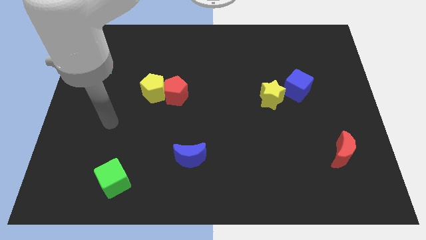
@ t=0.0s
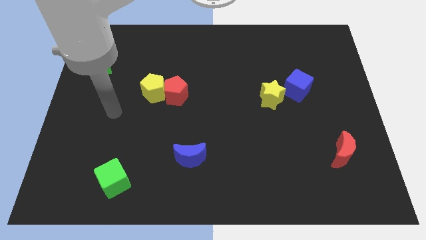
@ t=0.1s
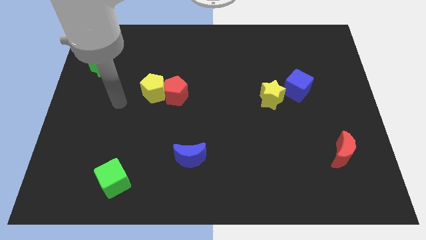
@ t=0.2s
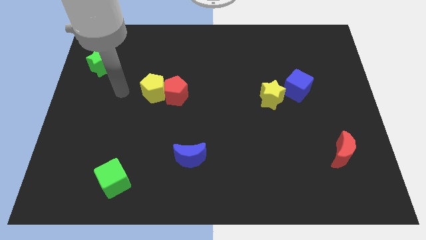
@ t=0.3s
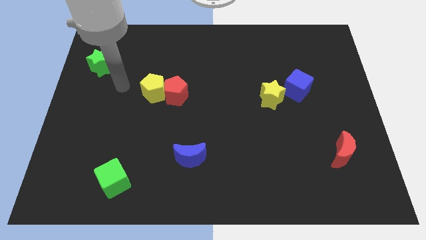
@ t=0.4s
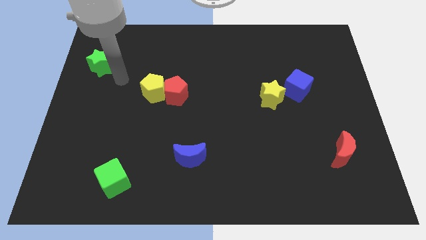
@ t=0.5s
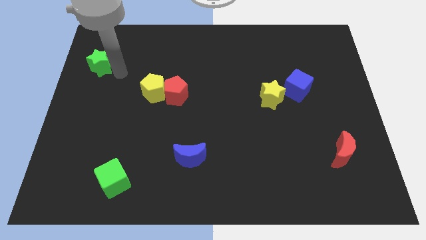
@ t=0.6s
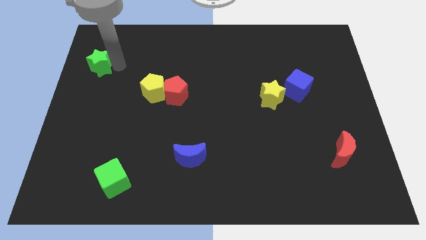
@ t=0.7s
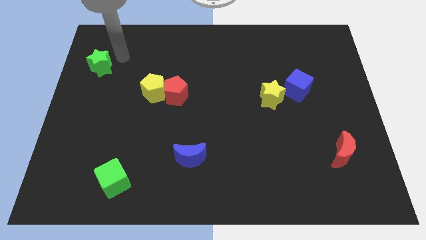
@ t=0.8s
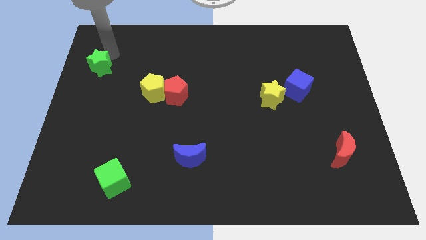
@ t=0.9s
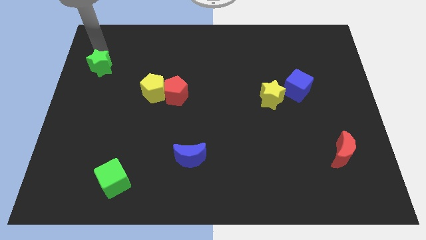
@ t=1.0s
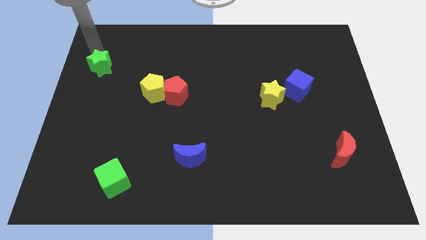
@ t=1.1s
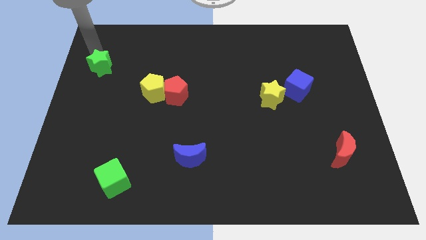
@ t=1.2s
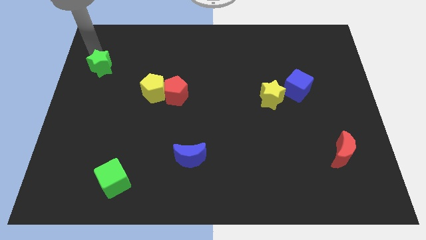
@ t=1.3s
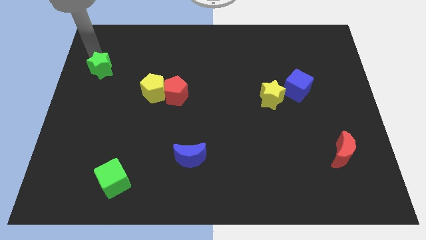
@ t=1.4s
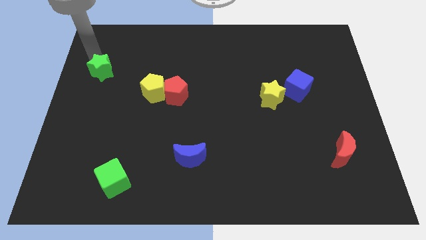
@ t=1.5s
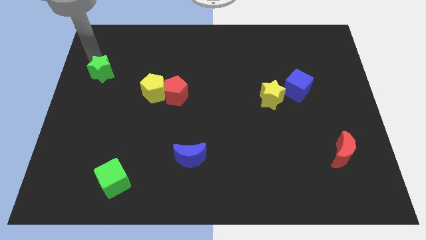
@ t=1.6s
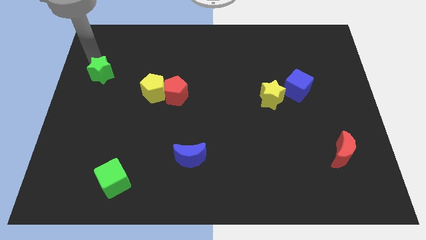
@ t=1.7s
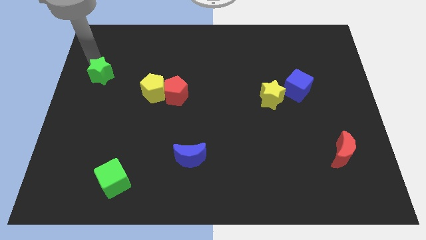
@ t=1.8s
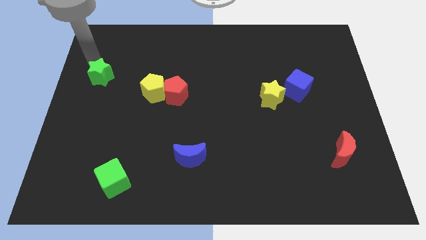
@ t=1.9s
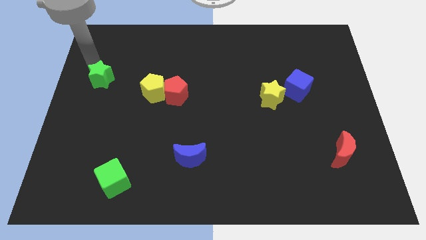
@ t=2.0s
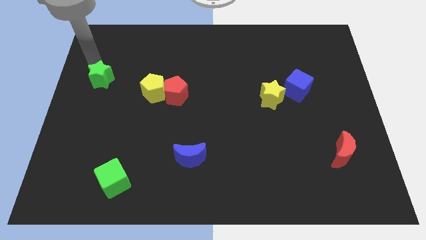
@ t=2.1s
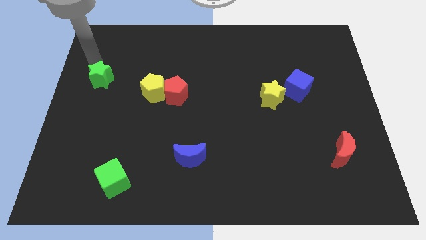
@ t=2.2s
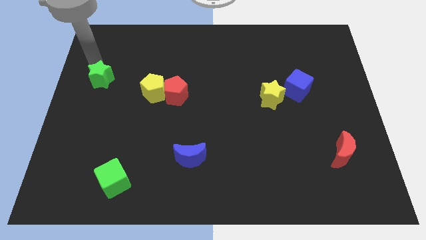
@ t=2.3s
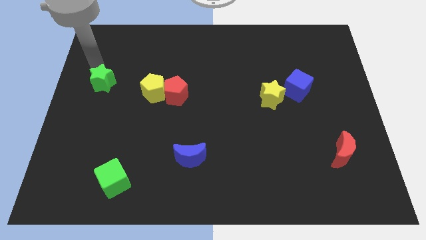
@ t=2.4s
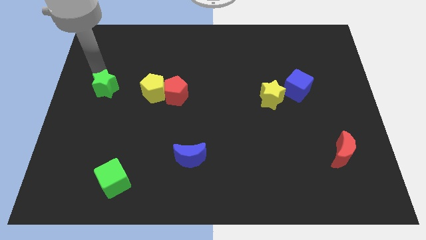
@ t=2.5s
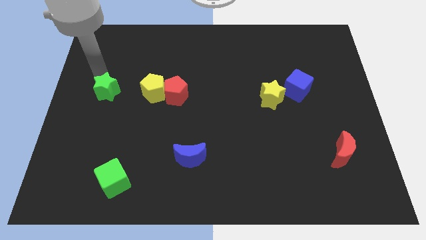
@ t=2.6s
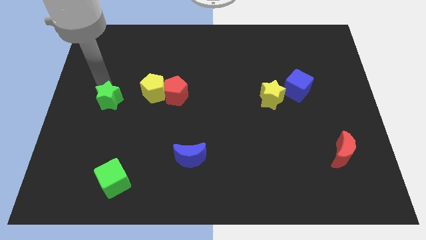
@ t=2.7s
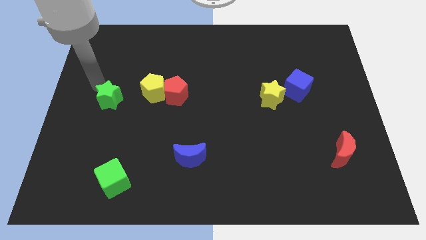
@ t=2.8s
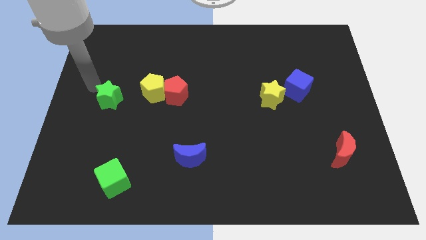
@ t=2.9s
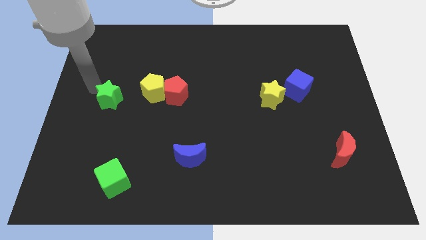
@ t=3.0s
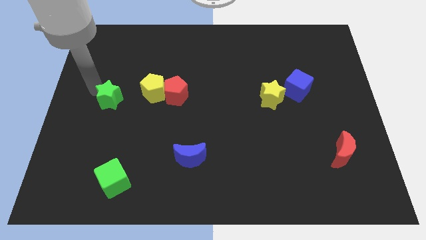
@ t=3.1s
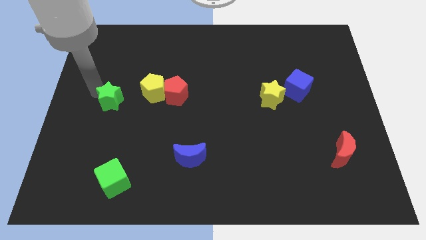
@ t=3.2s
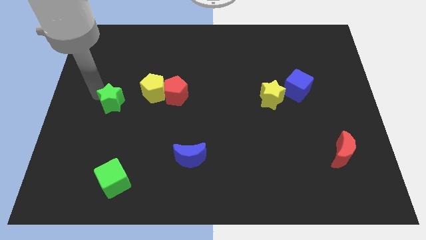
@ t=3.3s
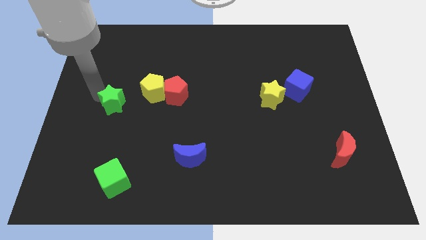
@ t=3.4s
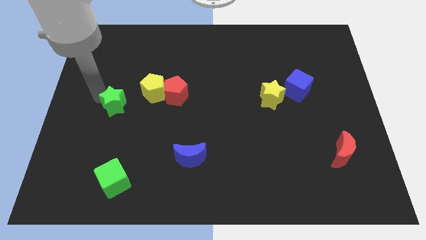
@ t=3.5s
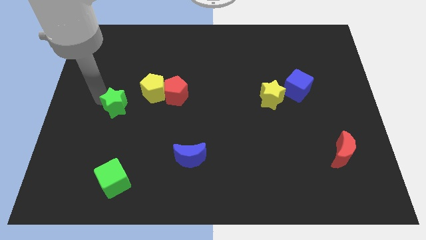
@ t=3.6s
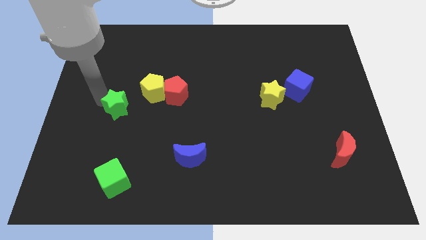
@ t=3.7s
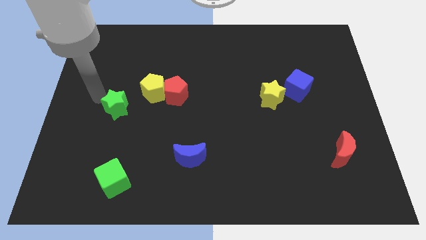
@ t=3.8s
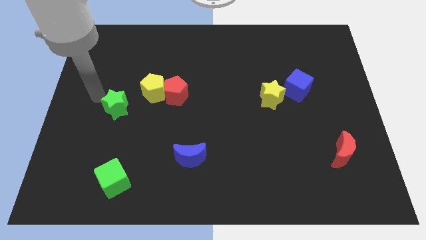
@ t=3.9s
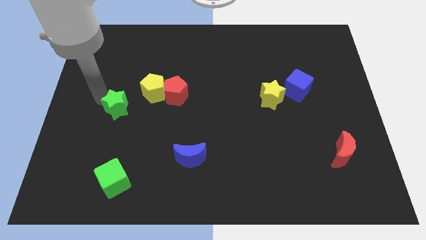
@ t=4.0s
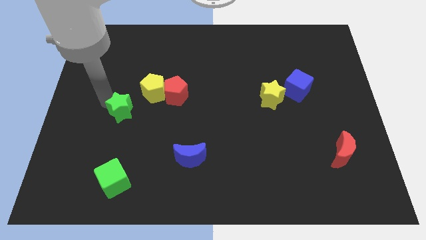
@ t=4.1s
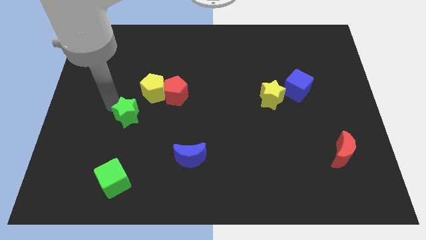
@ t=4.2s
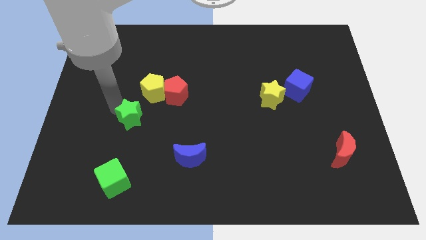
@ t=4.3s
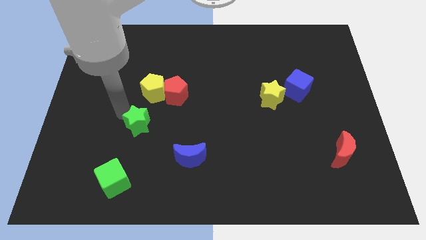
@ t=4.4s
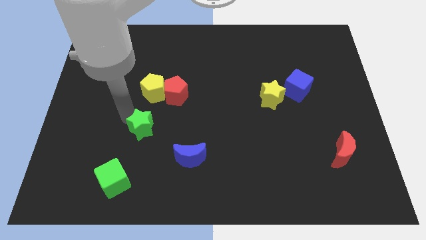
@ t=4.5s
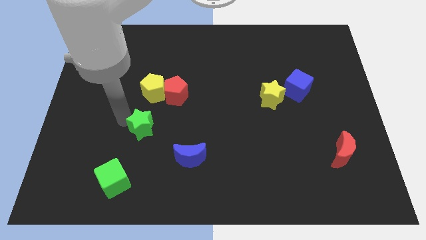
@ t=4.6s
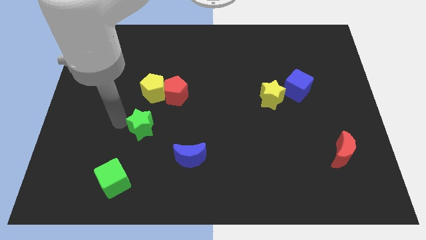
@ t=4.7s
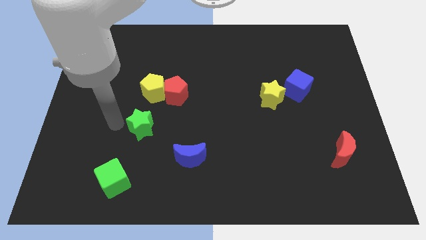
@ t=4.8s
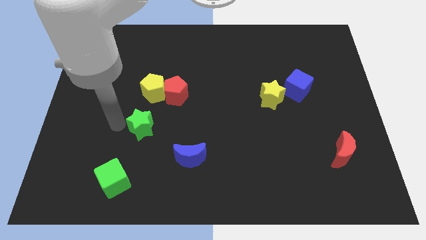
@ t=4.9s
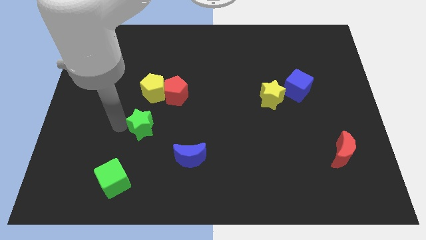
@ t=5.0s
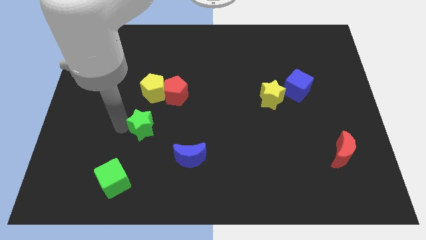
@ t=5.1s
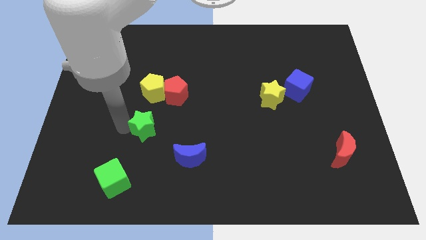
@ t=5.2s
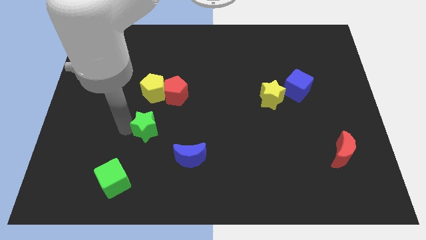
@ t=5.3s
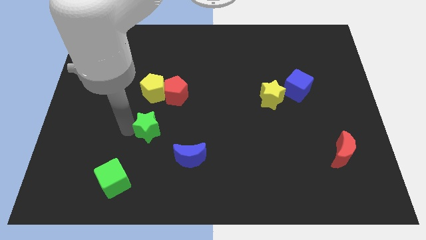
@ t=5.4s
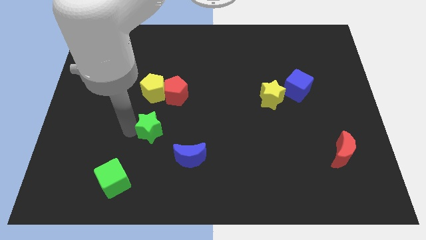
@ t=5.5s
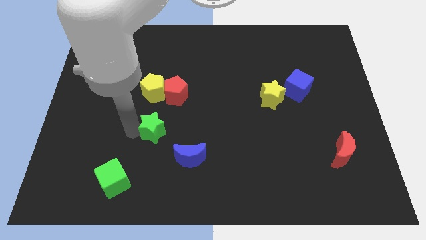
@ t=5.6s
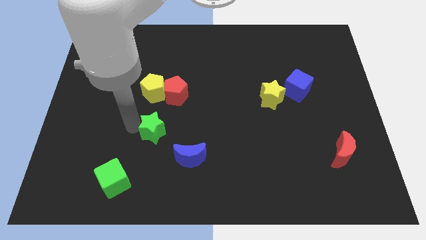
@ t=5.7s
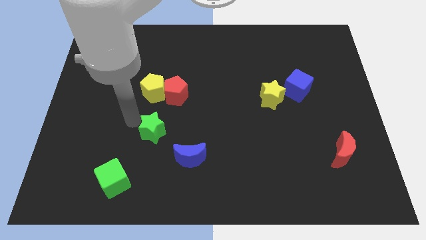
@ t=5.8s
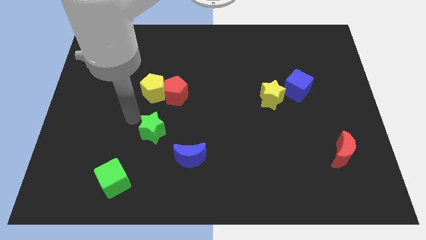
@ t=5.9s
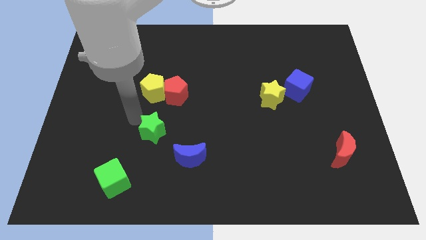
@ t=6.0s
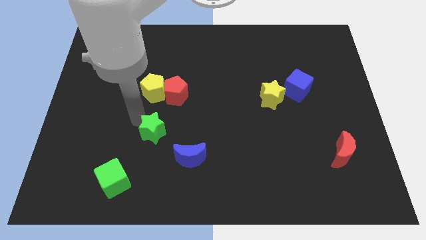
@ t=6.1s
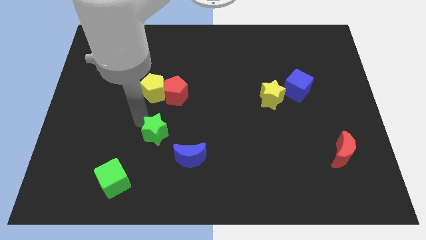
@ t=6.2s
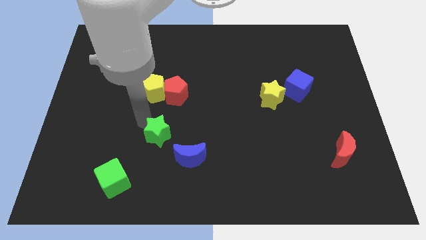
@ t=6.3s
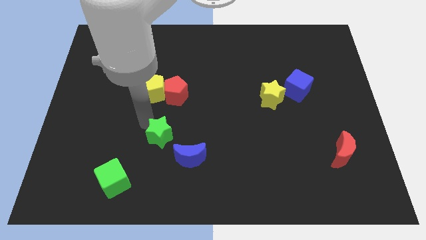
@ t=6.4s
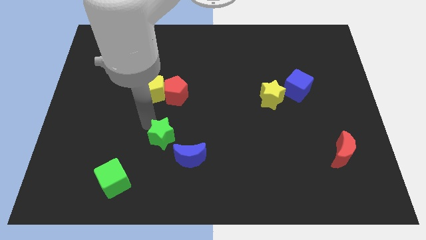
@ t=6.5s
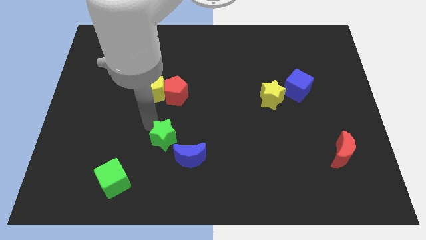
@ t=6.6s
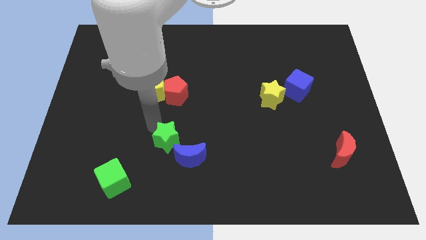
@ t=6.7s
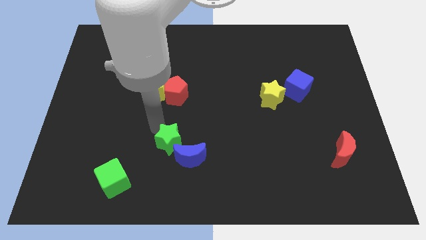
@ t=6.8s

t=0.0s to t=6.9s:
put the green star close to the blue moon
